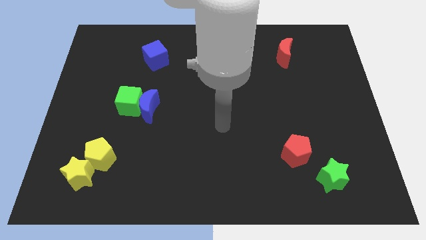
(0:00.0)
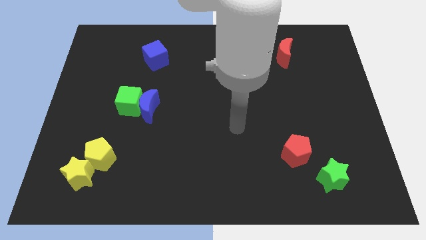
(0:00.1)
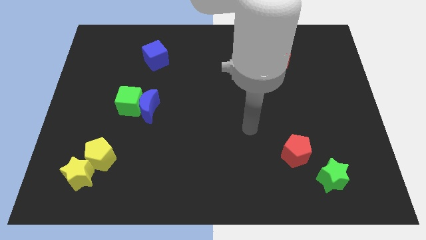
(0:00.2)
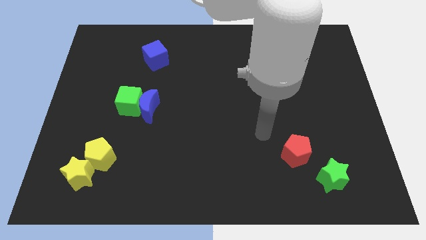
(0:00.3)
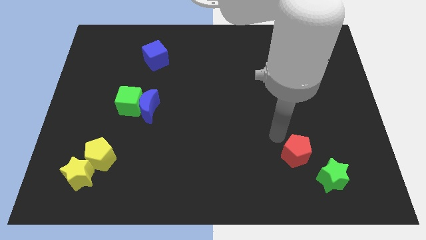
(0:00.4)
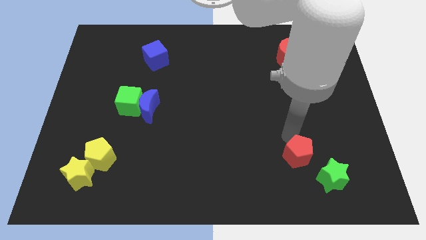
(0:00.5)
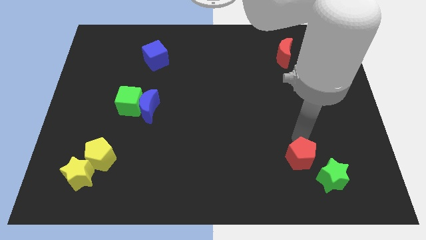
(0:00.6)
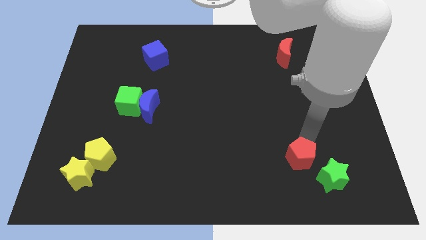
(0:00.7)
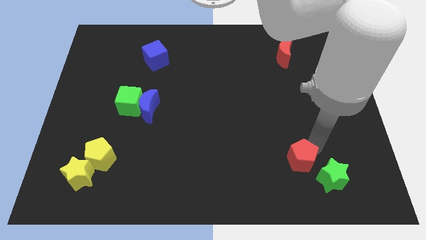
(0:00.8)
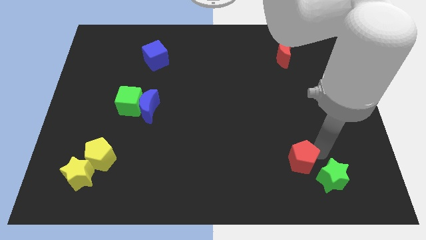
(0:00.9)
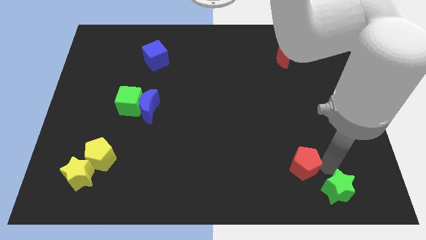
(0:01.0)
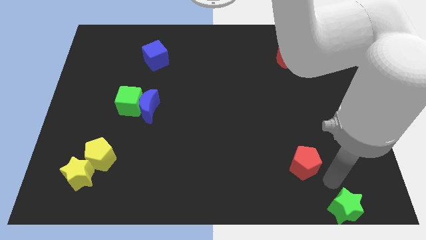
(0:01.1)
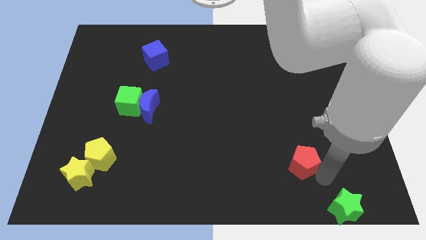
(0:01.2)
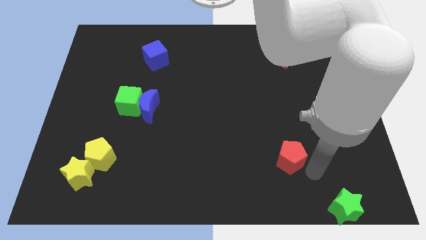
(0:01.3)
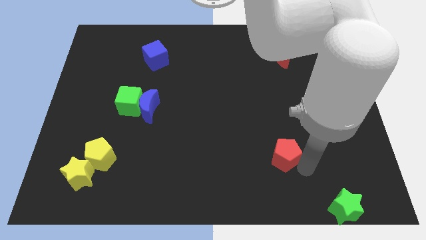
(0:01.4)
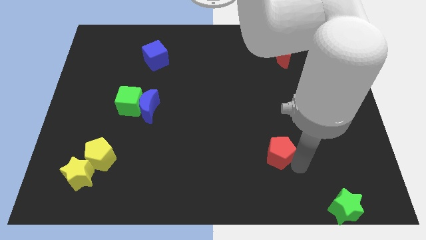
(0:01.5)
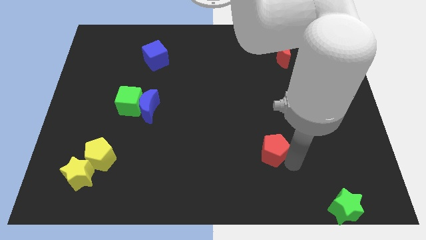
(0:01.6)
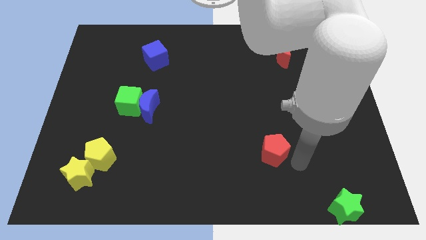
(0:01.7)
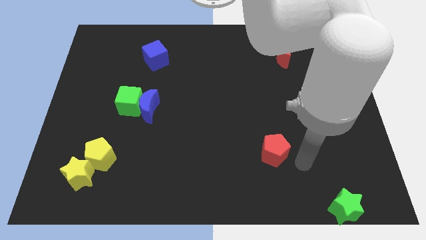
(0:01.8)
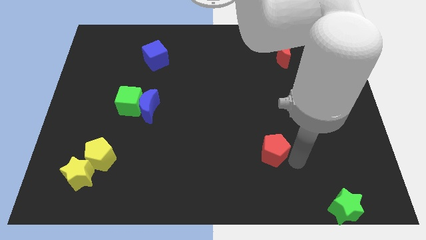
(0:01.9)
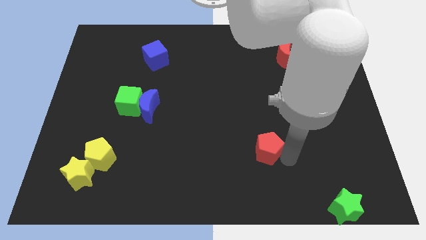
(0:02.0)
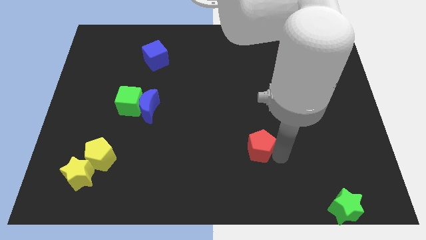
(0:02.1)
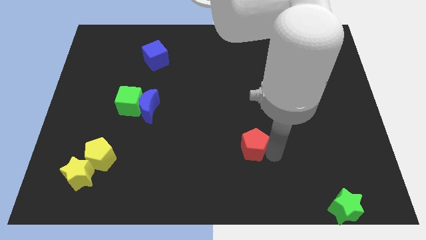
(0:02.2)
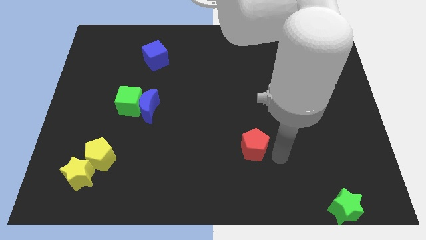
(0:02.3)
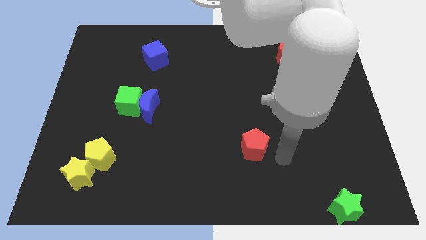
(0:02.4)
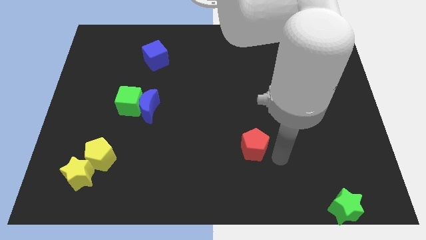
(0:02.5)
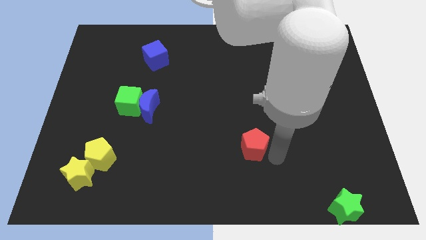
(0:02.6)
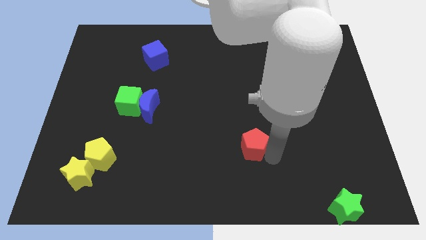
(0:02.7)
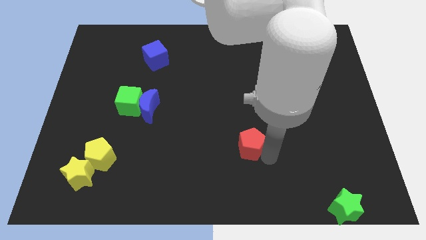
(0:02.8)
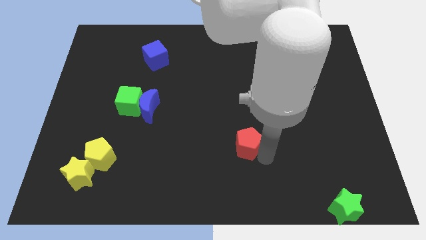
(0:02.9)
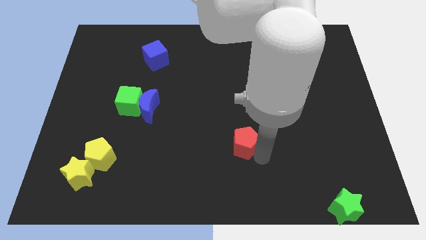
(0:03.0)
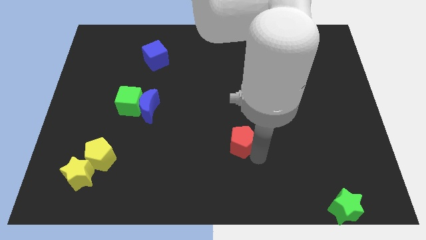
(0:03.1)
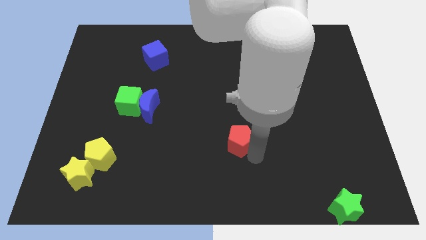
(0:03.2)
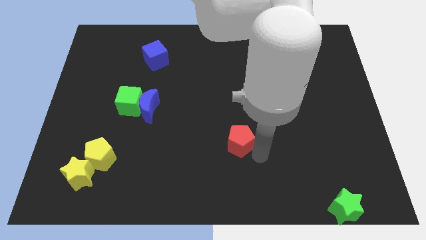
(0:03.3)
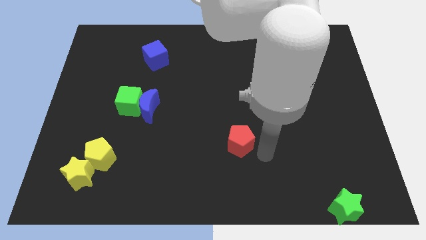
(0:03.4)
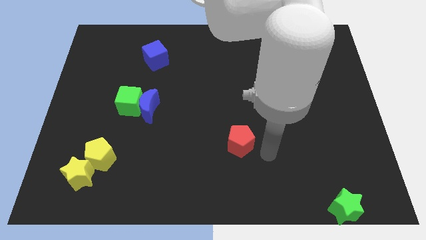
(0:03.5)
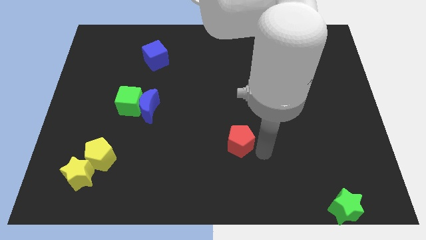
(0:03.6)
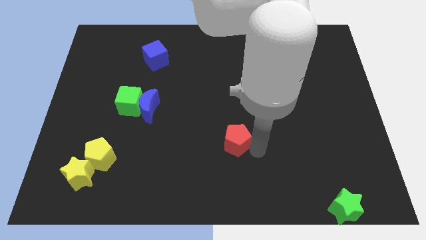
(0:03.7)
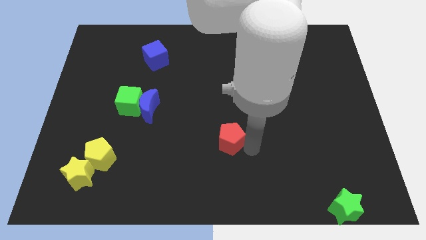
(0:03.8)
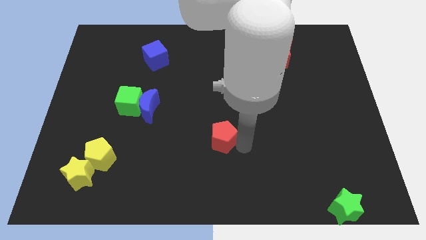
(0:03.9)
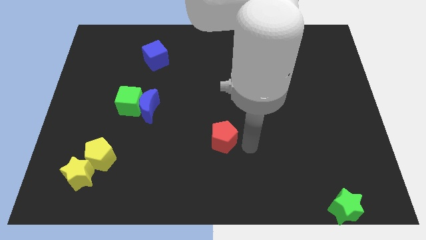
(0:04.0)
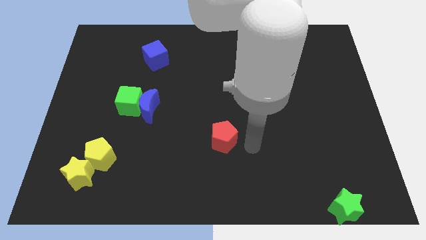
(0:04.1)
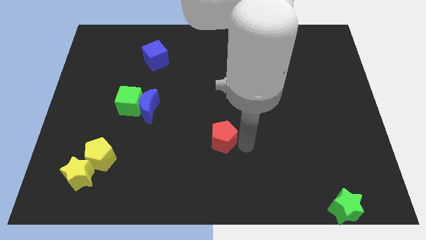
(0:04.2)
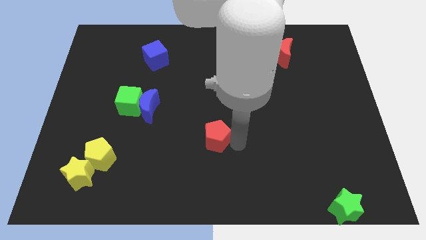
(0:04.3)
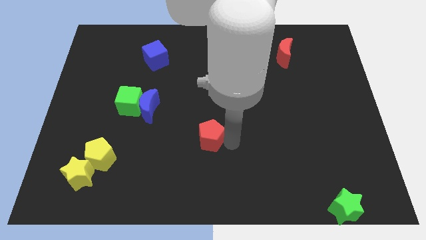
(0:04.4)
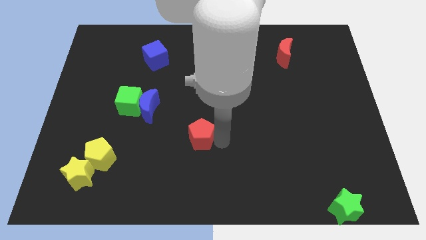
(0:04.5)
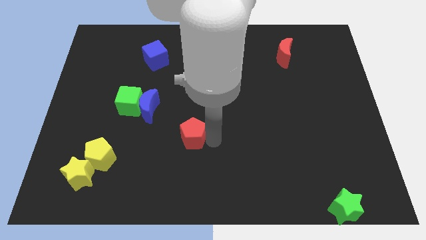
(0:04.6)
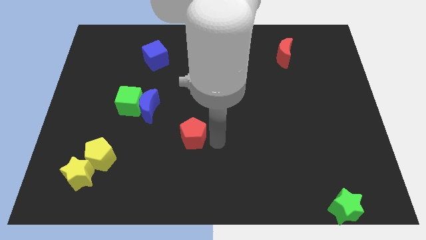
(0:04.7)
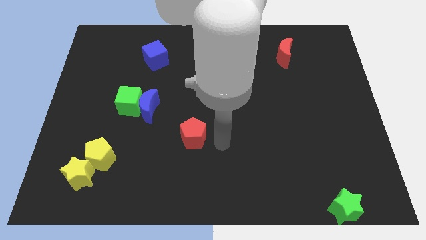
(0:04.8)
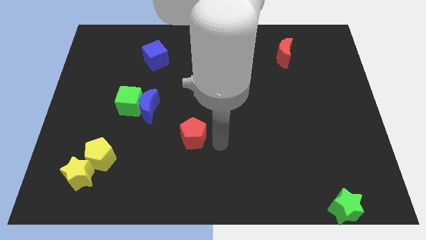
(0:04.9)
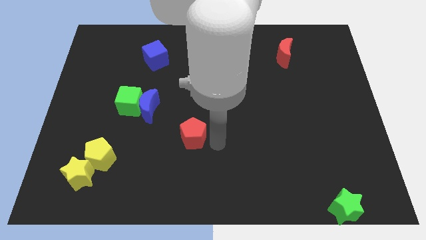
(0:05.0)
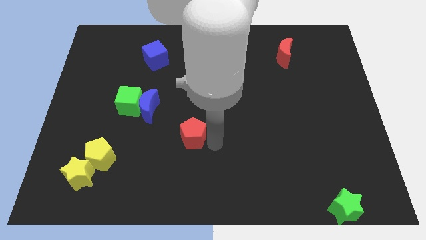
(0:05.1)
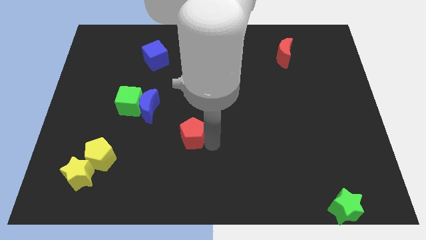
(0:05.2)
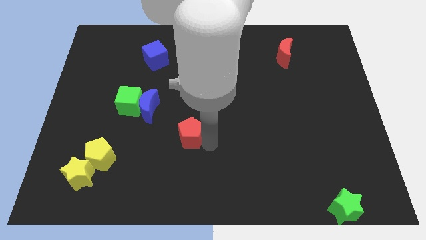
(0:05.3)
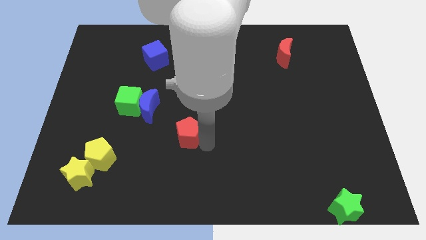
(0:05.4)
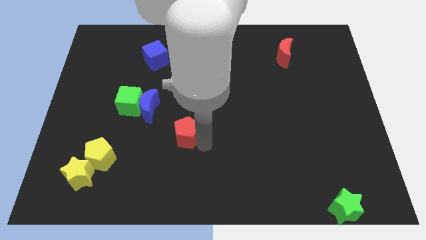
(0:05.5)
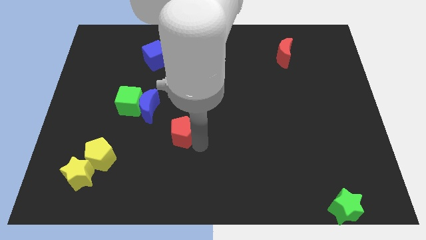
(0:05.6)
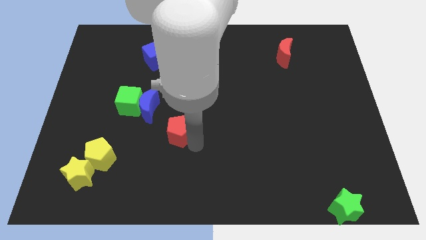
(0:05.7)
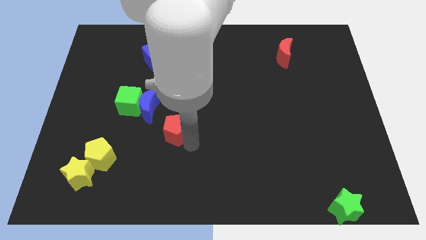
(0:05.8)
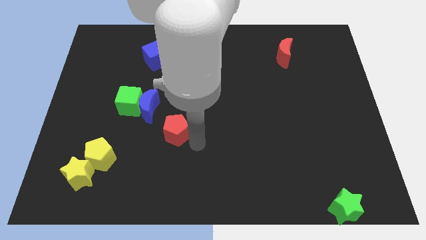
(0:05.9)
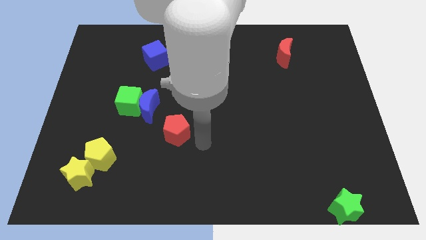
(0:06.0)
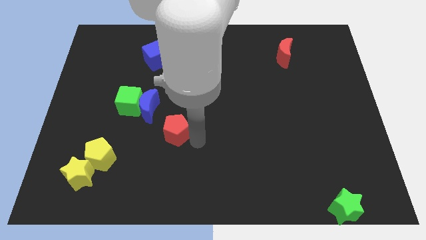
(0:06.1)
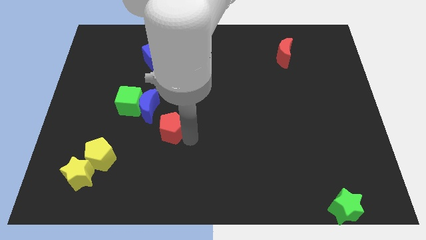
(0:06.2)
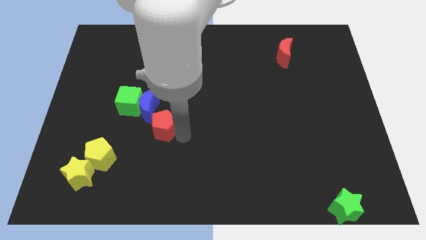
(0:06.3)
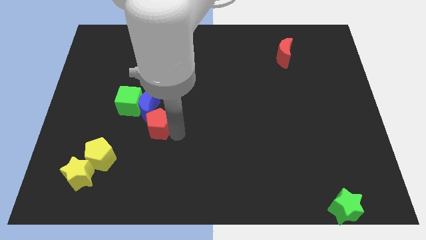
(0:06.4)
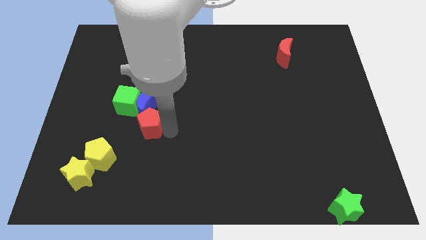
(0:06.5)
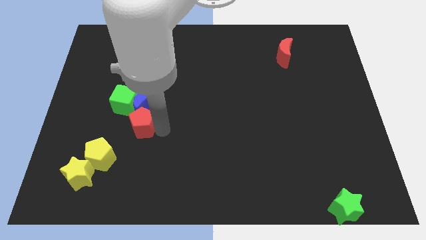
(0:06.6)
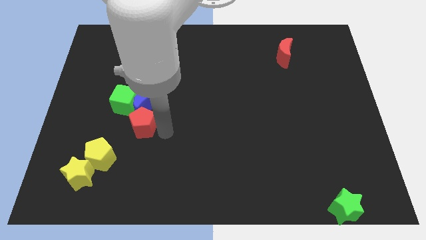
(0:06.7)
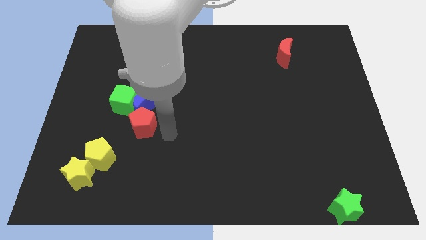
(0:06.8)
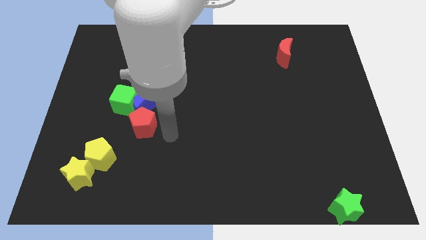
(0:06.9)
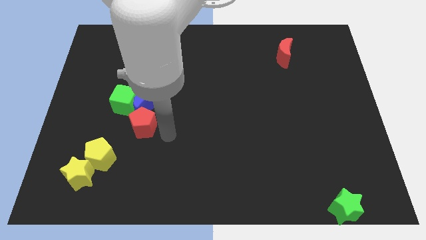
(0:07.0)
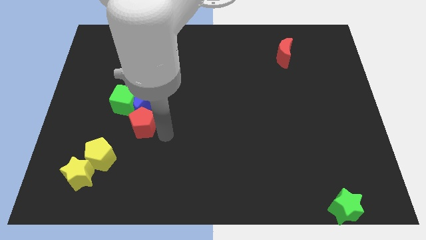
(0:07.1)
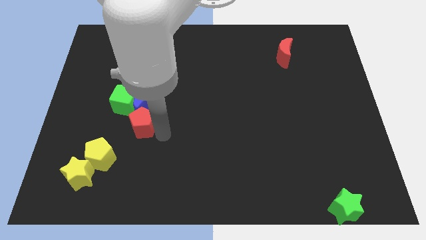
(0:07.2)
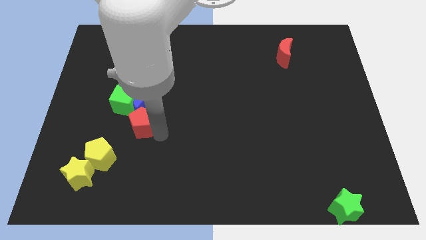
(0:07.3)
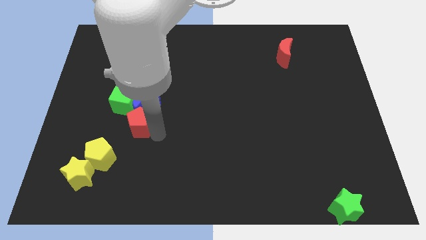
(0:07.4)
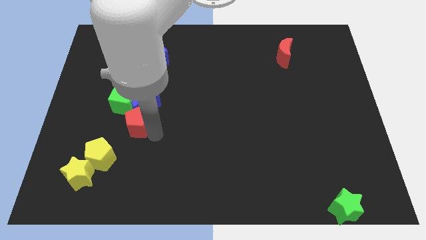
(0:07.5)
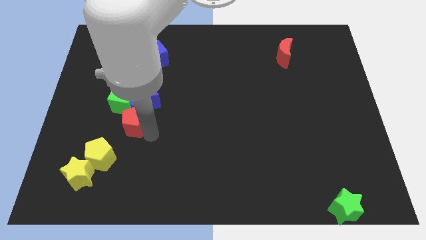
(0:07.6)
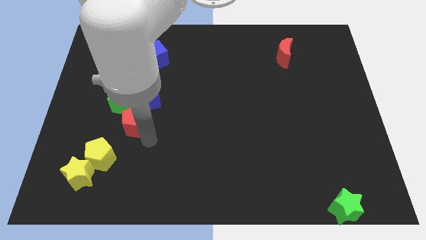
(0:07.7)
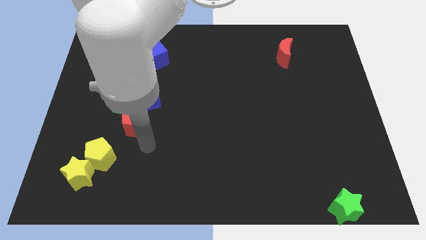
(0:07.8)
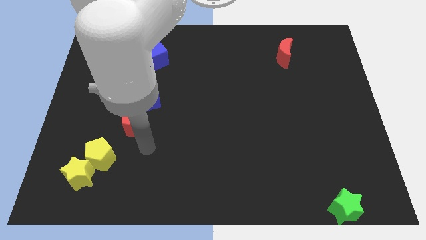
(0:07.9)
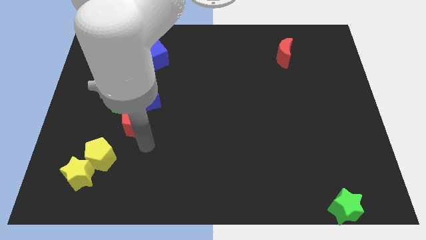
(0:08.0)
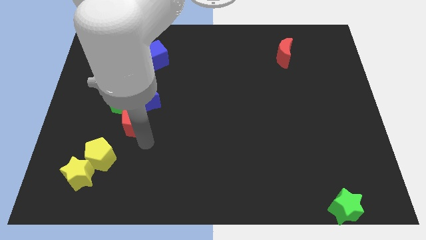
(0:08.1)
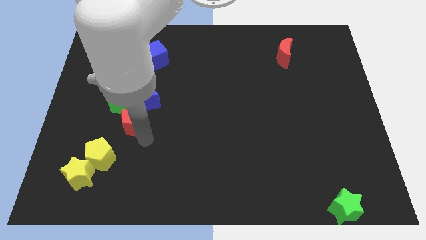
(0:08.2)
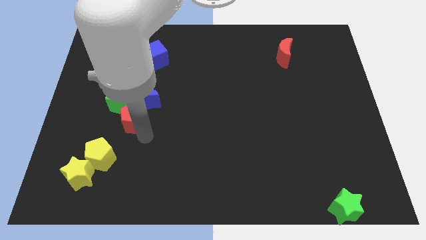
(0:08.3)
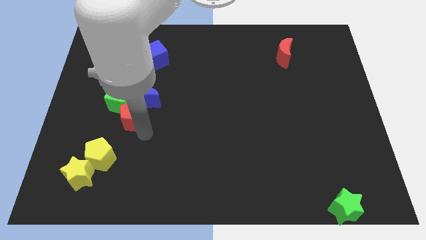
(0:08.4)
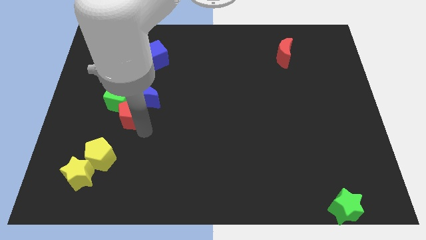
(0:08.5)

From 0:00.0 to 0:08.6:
slide the red pentagon to the green cube

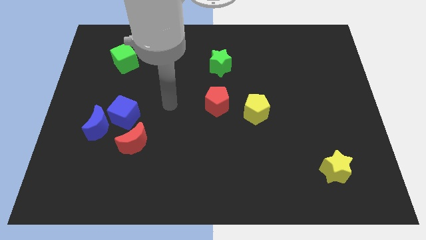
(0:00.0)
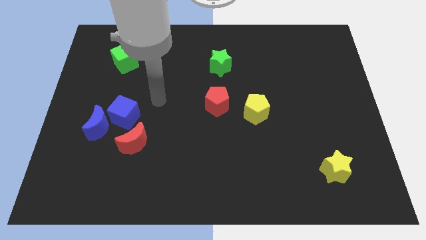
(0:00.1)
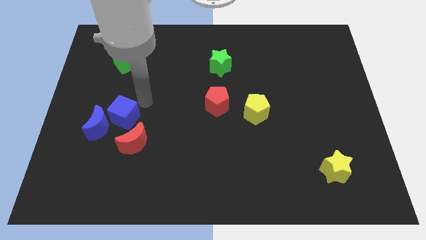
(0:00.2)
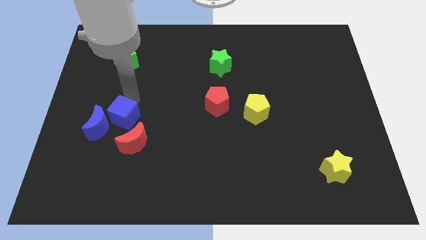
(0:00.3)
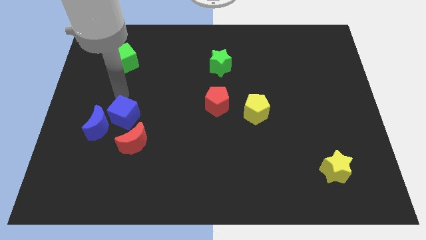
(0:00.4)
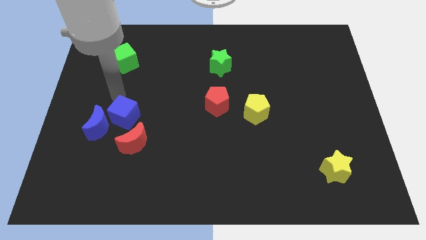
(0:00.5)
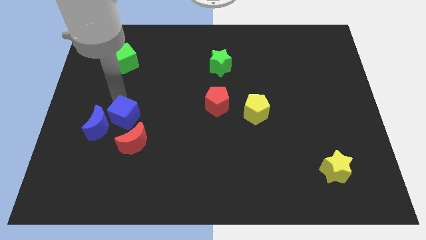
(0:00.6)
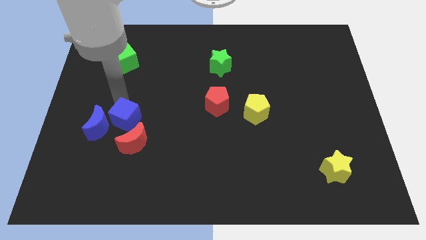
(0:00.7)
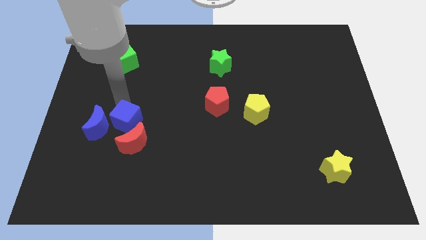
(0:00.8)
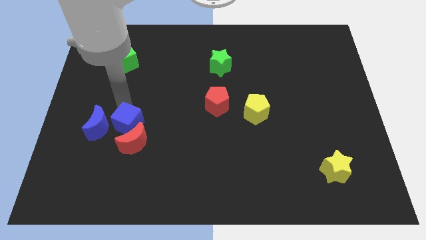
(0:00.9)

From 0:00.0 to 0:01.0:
slide the blue cube towards the red moon
